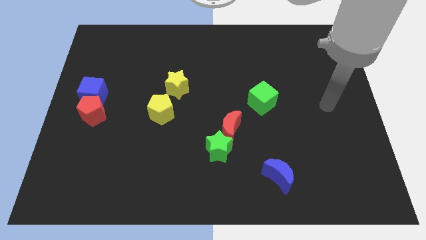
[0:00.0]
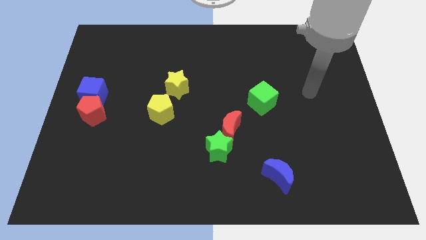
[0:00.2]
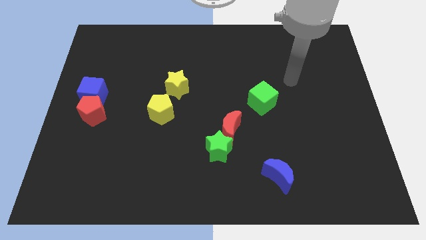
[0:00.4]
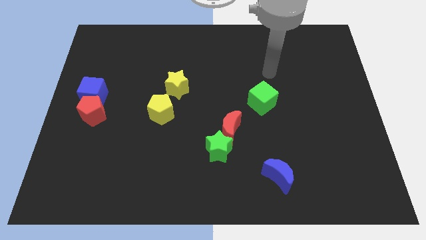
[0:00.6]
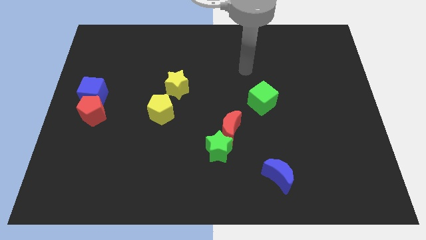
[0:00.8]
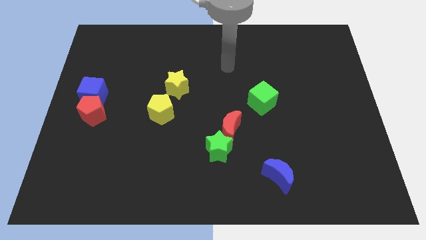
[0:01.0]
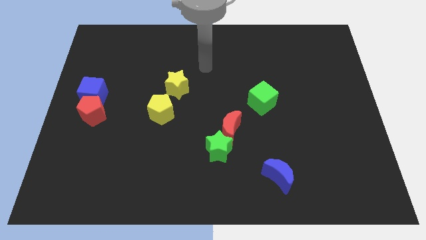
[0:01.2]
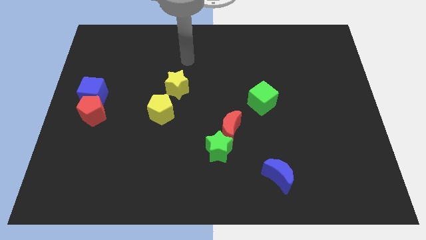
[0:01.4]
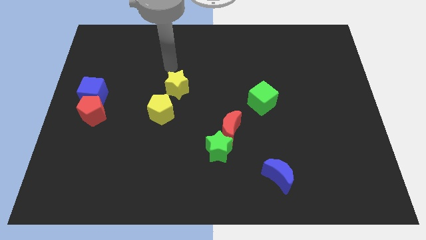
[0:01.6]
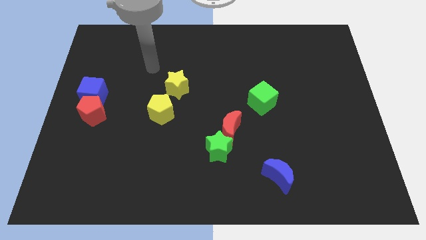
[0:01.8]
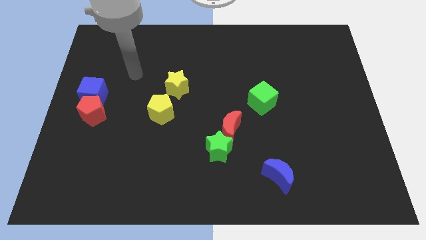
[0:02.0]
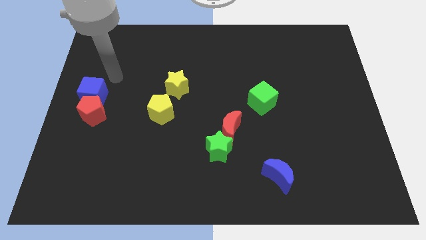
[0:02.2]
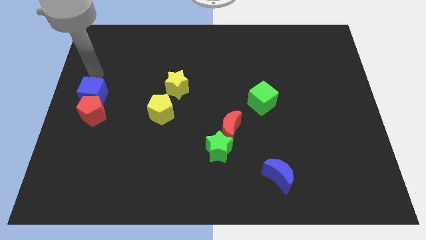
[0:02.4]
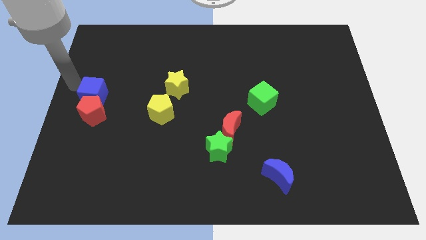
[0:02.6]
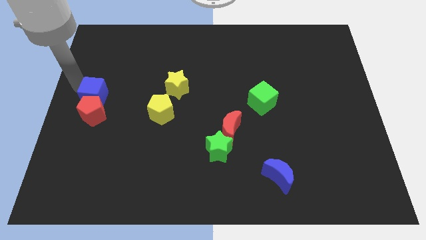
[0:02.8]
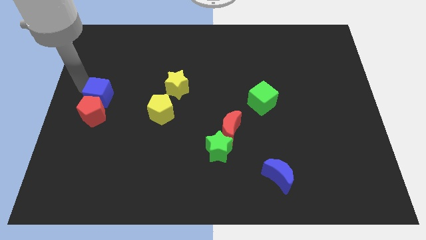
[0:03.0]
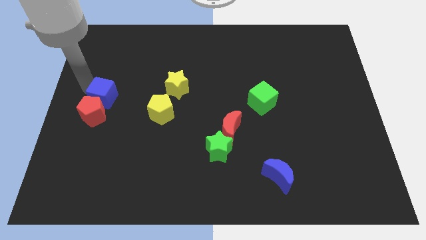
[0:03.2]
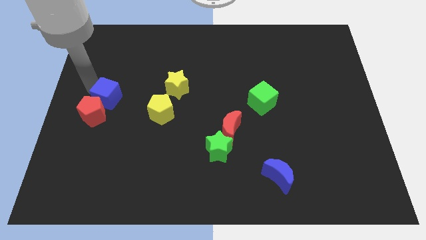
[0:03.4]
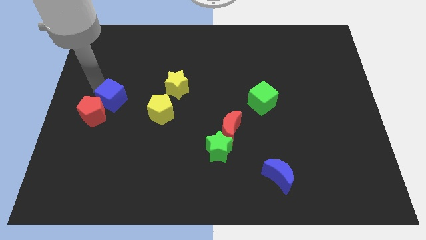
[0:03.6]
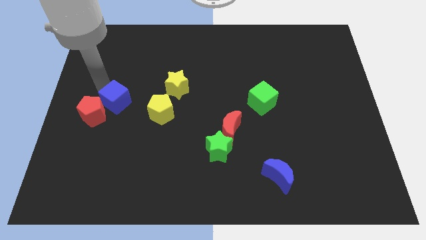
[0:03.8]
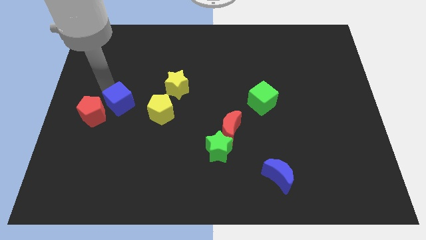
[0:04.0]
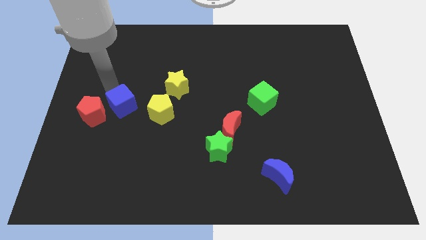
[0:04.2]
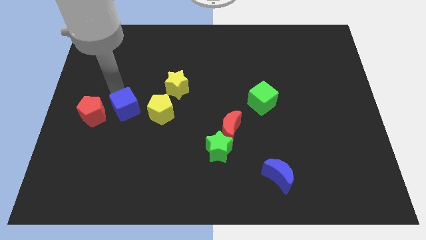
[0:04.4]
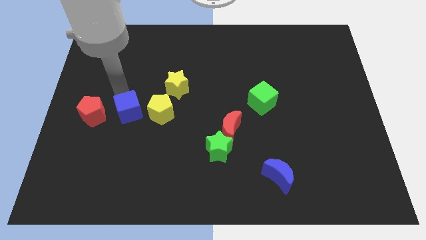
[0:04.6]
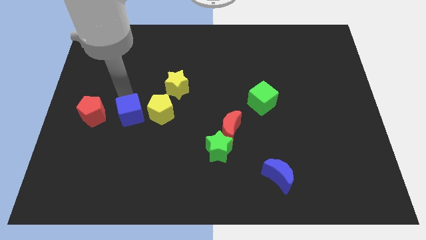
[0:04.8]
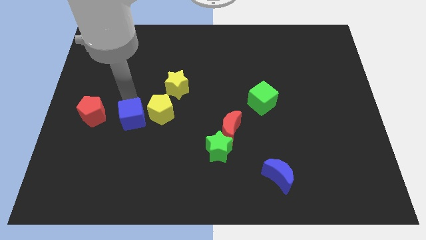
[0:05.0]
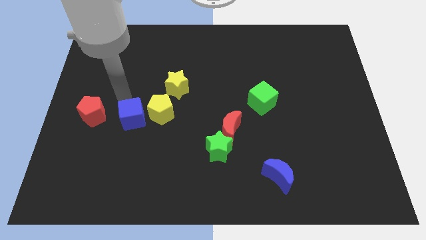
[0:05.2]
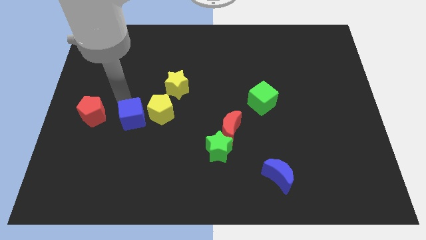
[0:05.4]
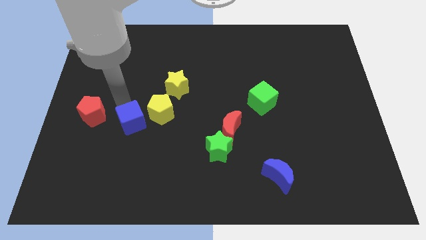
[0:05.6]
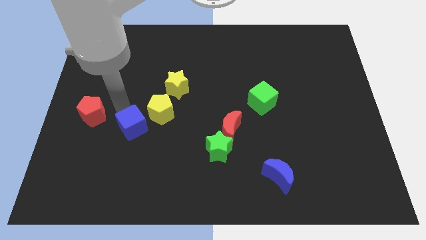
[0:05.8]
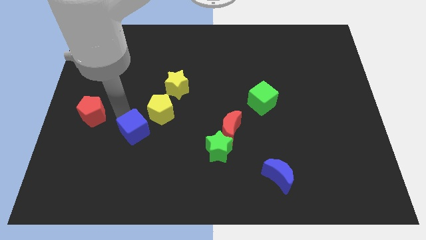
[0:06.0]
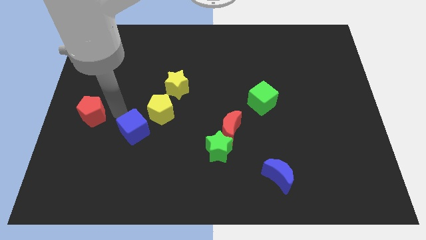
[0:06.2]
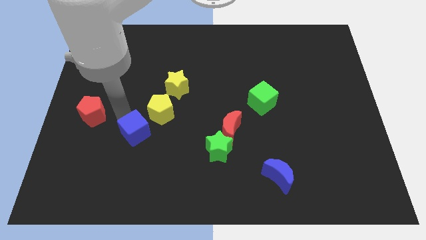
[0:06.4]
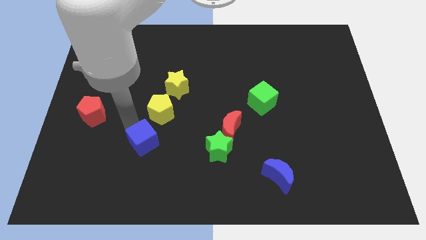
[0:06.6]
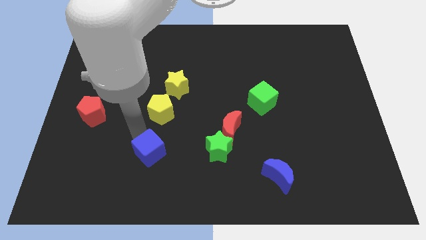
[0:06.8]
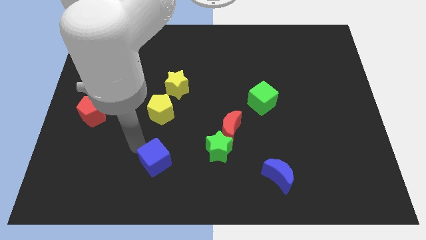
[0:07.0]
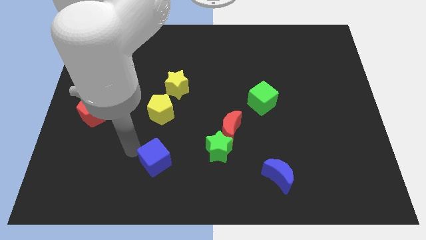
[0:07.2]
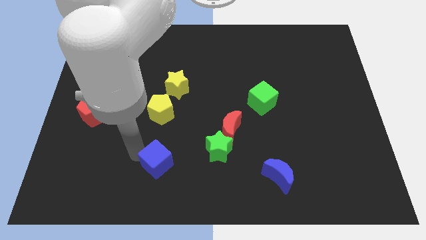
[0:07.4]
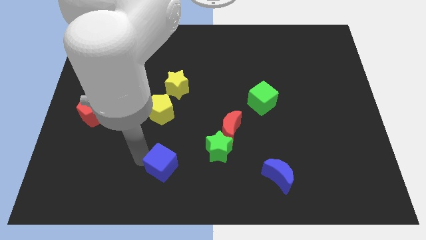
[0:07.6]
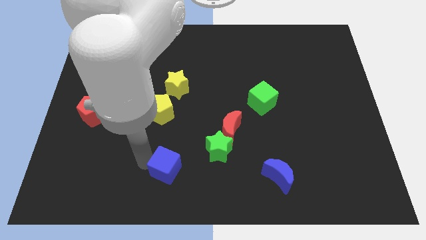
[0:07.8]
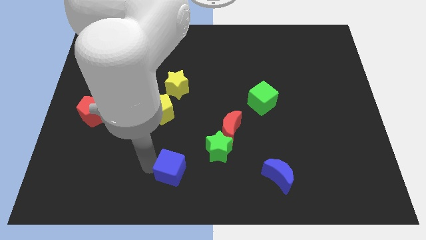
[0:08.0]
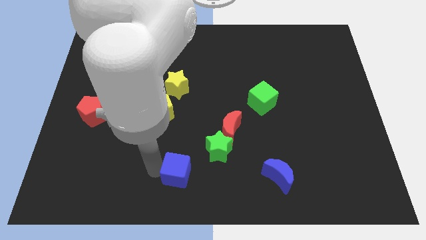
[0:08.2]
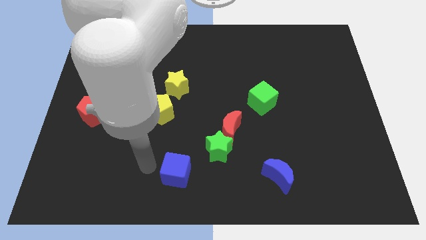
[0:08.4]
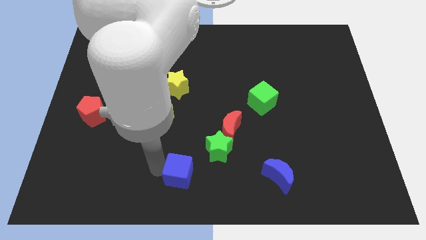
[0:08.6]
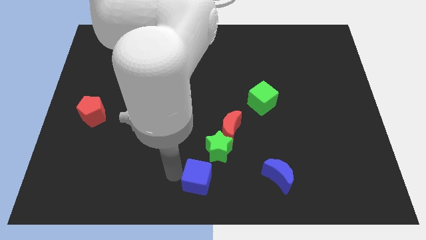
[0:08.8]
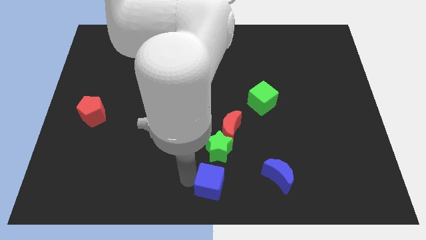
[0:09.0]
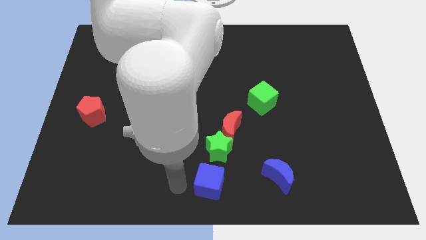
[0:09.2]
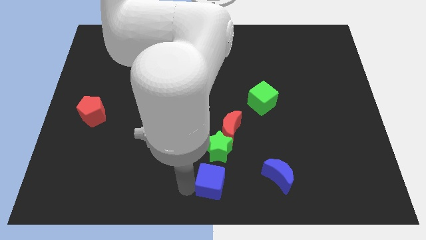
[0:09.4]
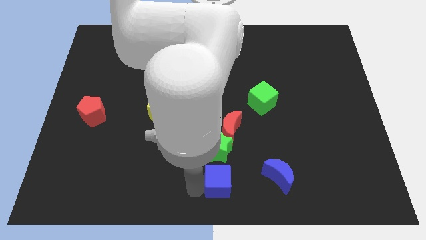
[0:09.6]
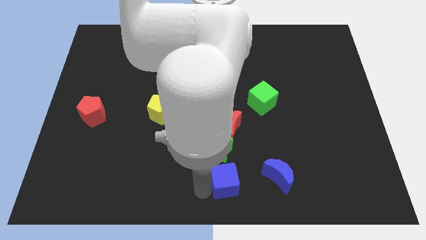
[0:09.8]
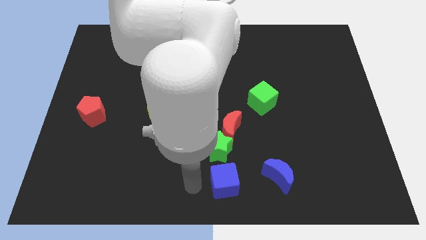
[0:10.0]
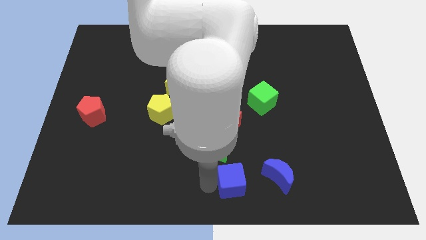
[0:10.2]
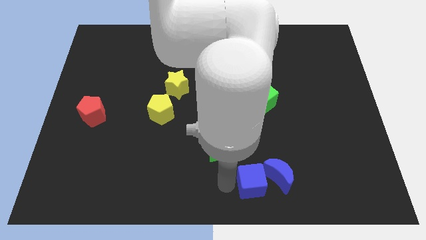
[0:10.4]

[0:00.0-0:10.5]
put the blue cube towards the blue moon

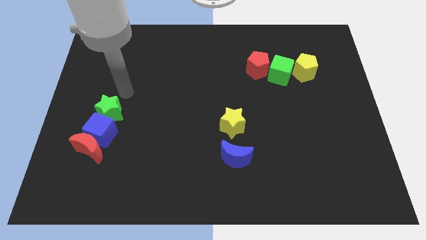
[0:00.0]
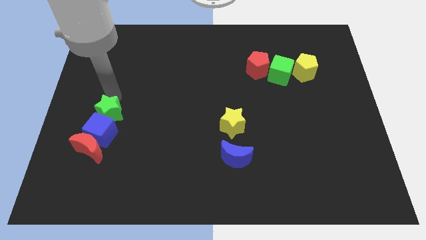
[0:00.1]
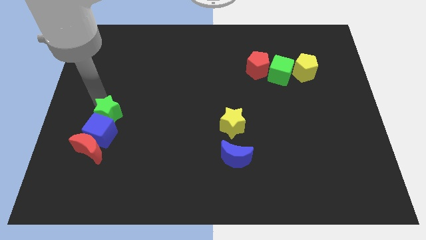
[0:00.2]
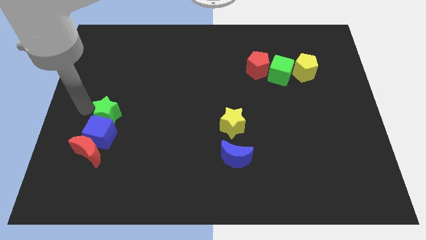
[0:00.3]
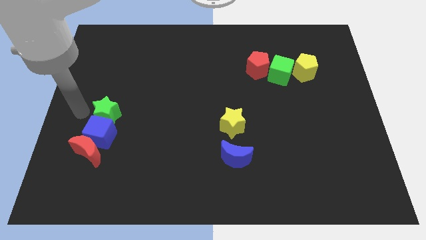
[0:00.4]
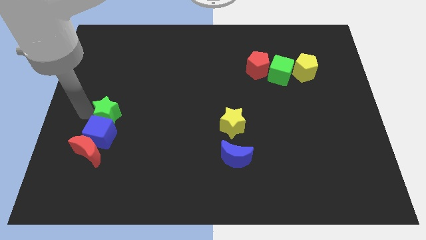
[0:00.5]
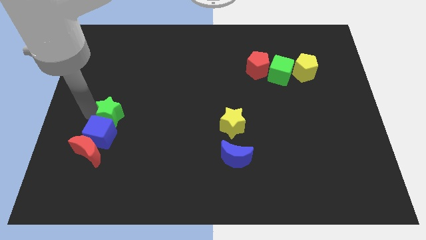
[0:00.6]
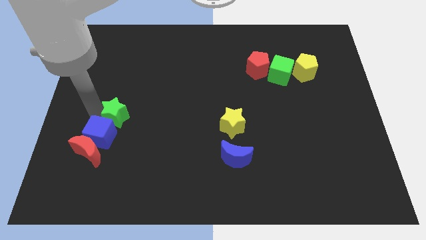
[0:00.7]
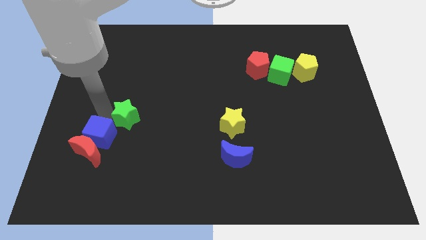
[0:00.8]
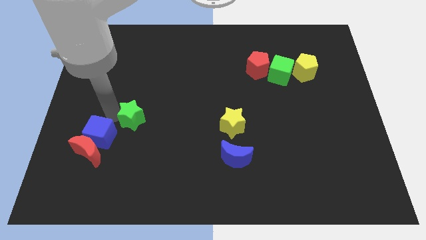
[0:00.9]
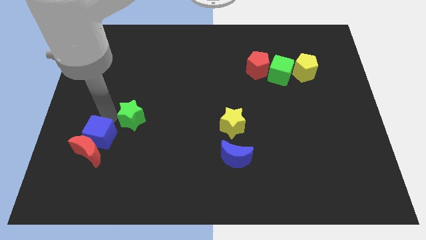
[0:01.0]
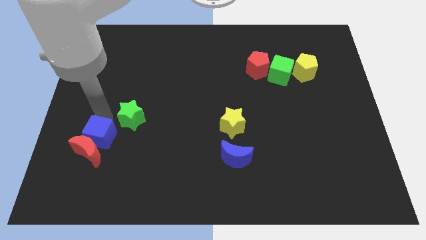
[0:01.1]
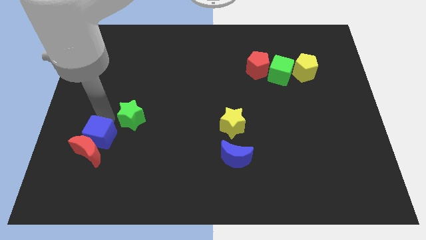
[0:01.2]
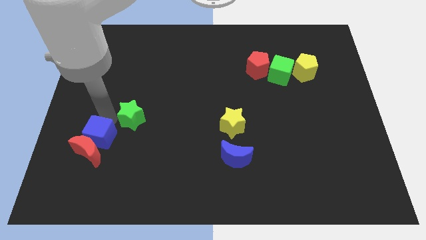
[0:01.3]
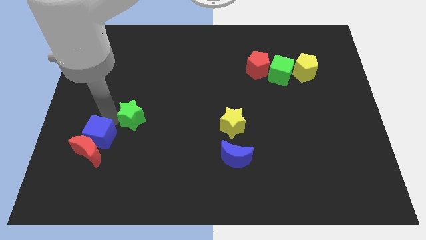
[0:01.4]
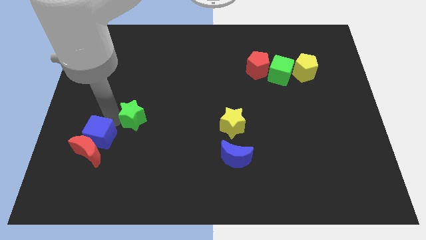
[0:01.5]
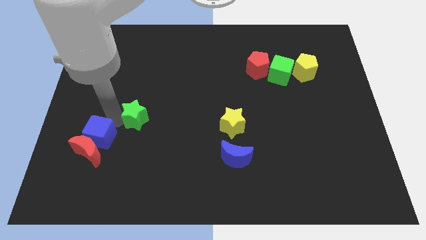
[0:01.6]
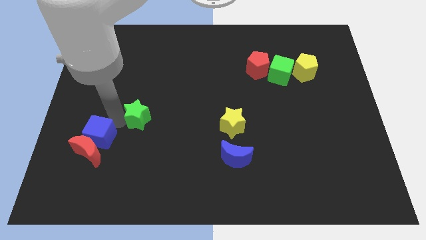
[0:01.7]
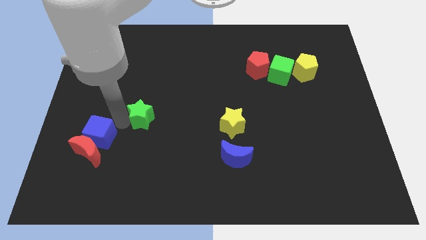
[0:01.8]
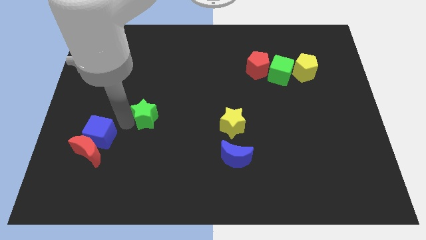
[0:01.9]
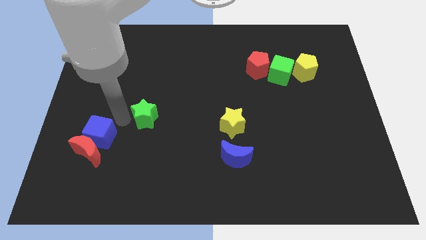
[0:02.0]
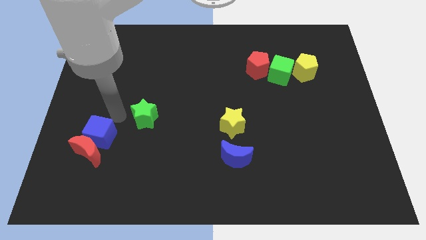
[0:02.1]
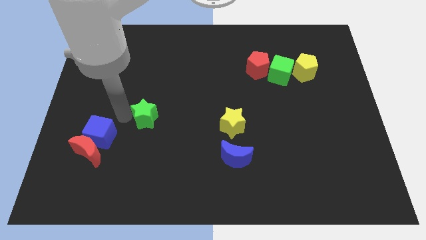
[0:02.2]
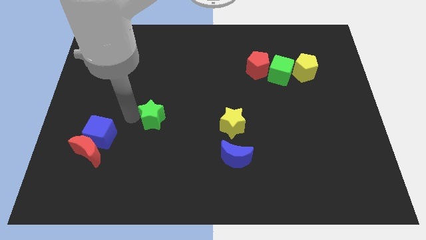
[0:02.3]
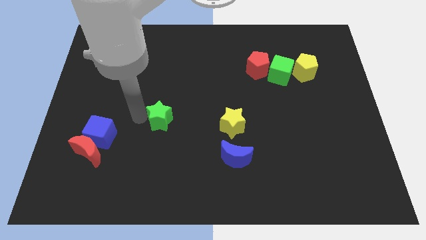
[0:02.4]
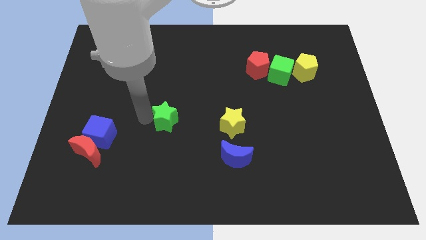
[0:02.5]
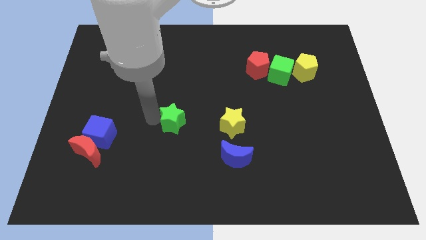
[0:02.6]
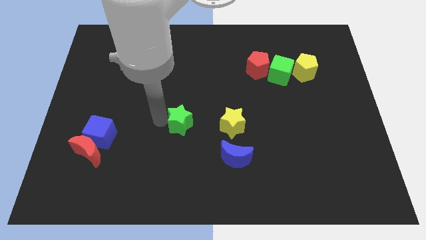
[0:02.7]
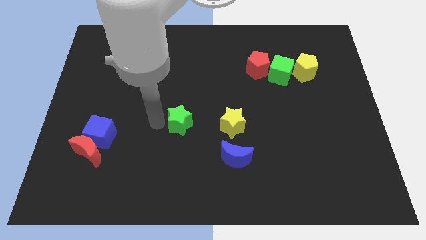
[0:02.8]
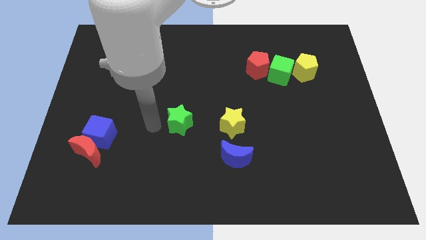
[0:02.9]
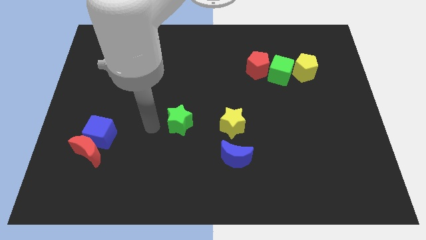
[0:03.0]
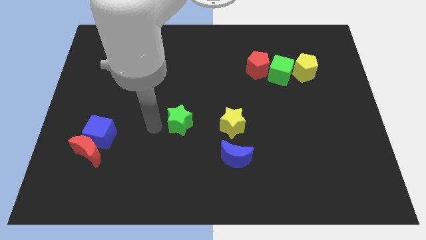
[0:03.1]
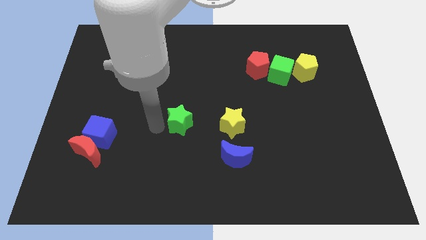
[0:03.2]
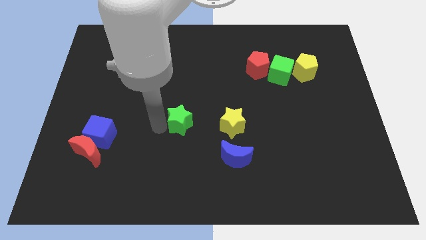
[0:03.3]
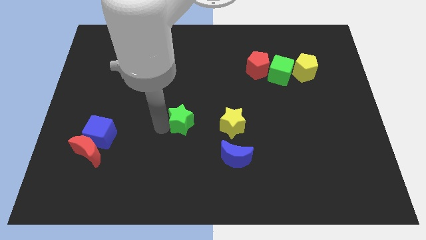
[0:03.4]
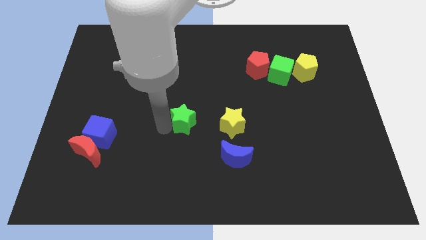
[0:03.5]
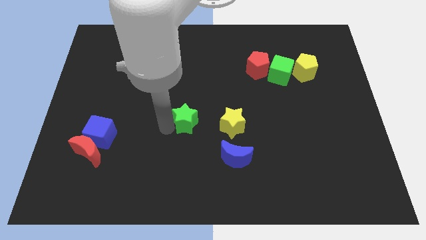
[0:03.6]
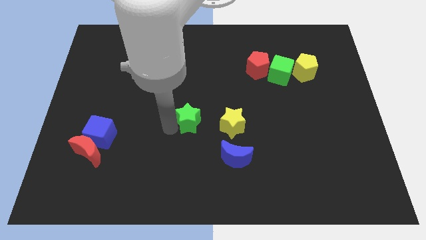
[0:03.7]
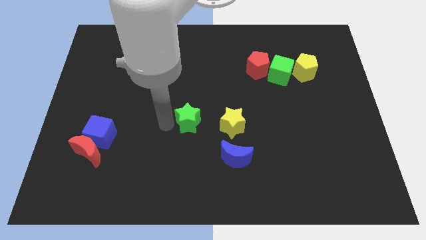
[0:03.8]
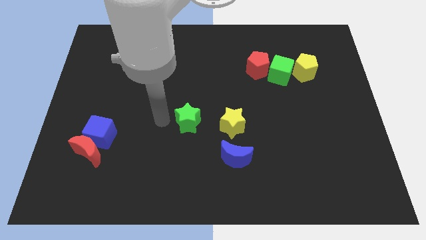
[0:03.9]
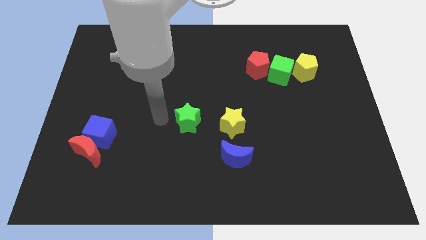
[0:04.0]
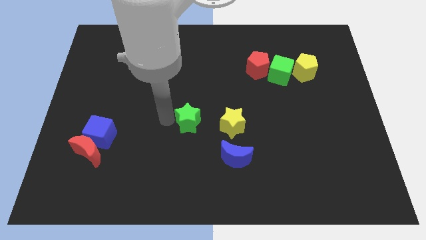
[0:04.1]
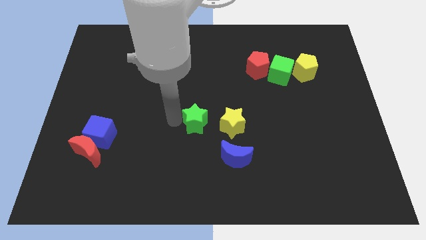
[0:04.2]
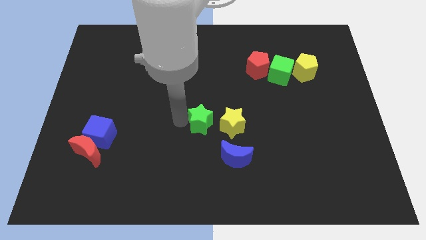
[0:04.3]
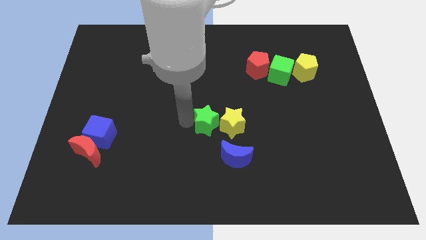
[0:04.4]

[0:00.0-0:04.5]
push the green star close to the yellow star
